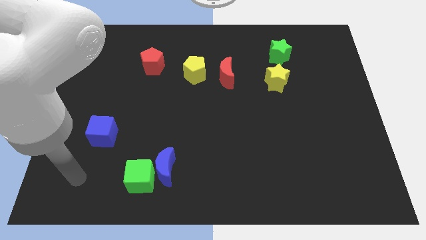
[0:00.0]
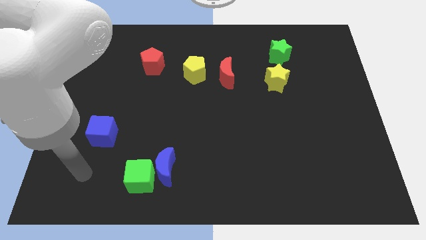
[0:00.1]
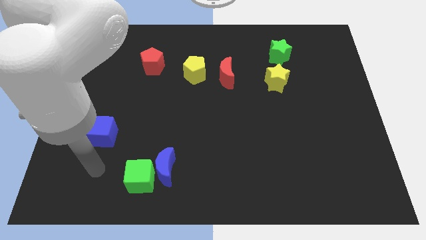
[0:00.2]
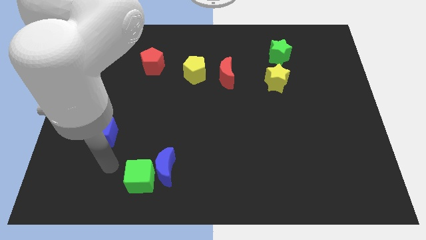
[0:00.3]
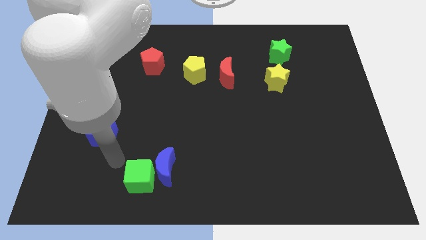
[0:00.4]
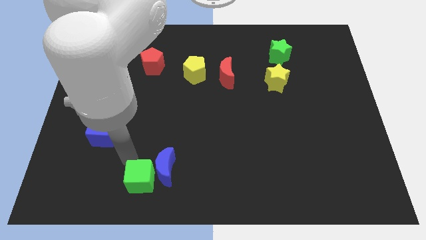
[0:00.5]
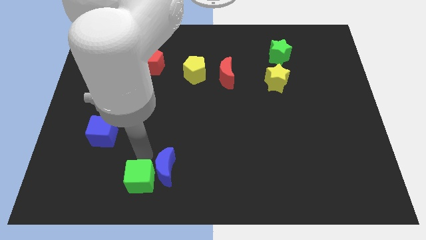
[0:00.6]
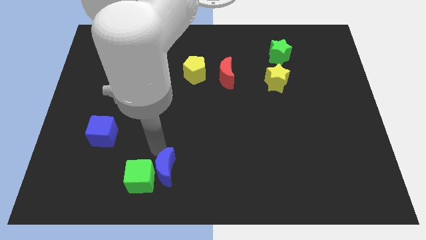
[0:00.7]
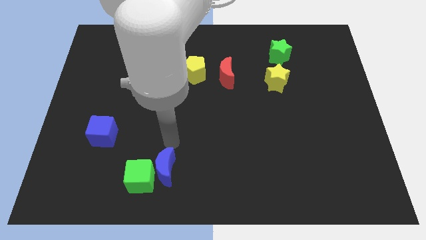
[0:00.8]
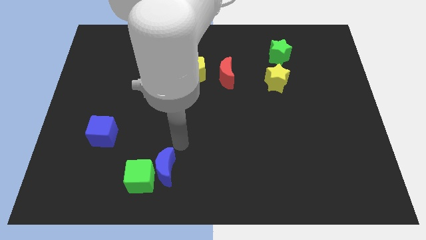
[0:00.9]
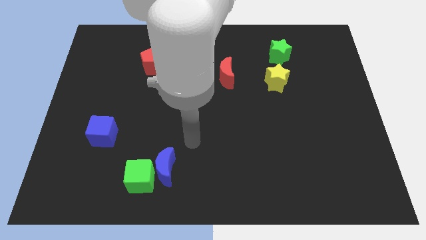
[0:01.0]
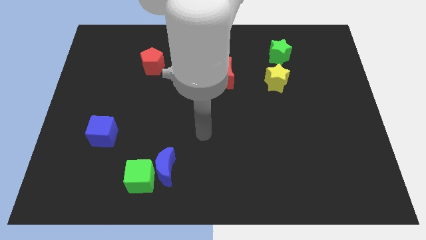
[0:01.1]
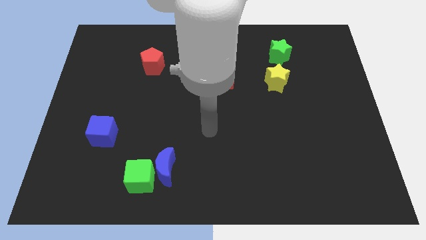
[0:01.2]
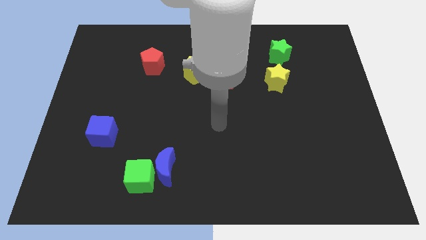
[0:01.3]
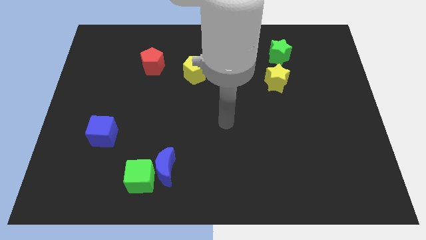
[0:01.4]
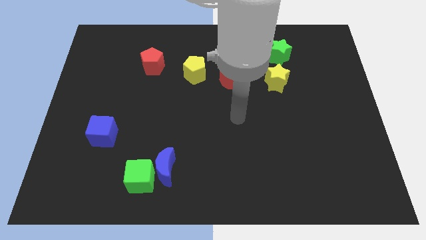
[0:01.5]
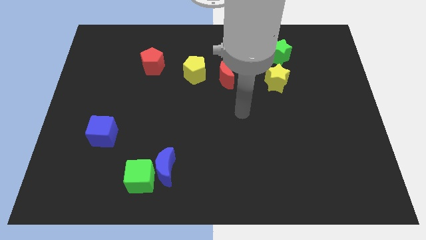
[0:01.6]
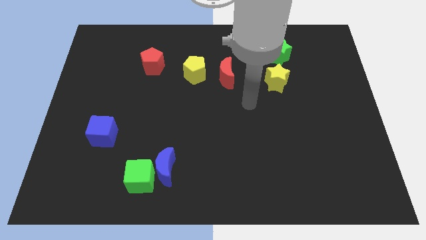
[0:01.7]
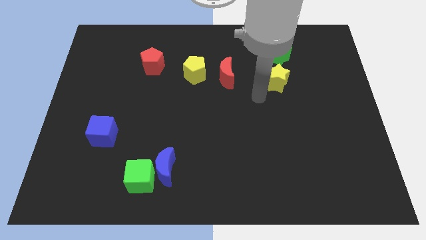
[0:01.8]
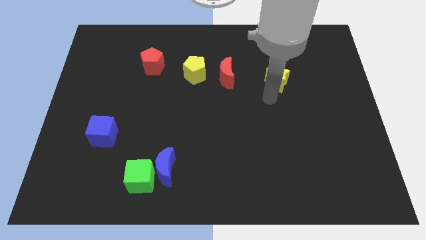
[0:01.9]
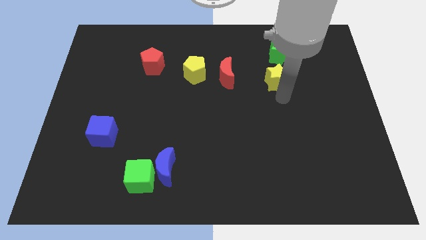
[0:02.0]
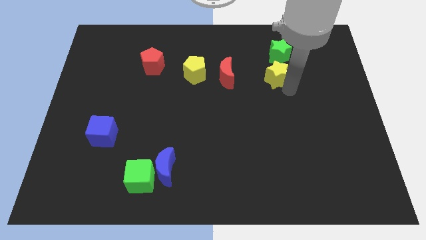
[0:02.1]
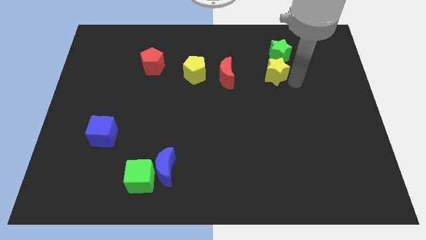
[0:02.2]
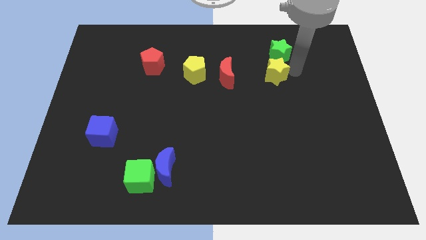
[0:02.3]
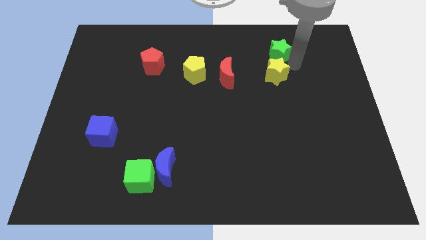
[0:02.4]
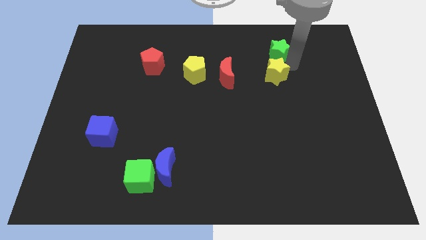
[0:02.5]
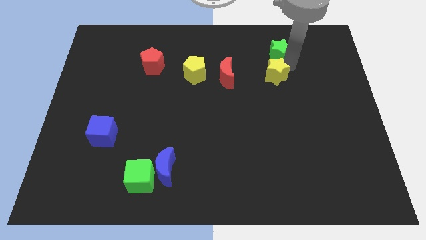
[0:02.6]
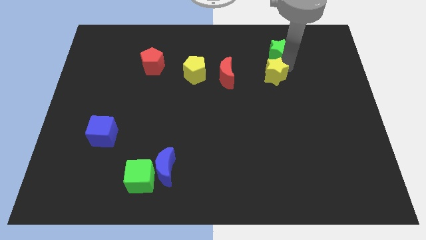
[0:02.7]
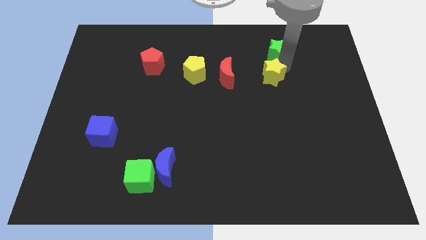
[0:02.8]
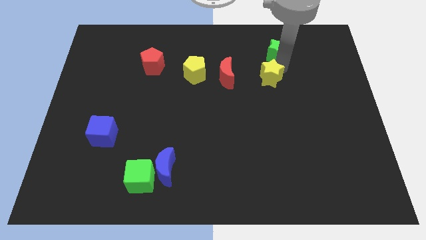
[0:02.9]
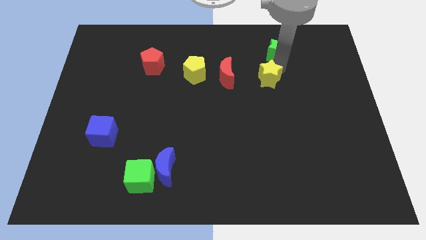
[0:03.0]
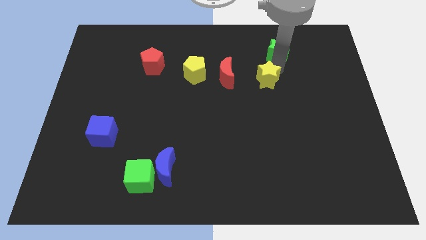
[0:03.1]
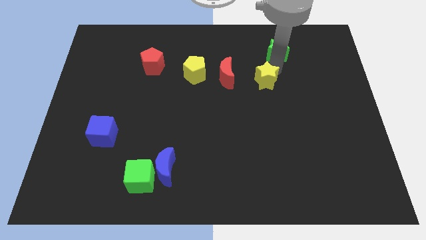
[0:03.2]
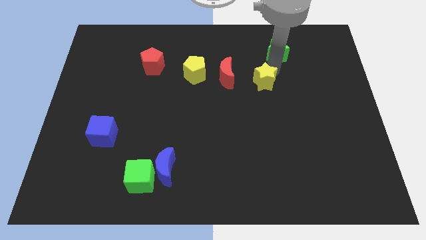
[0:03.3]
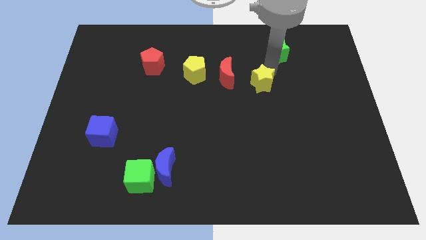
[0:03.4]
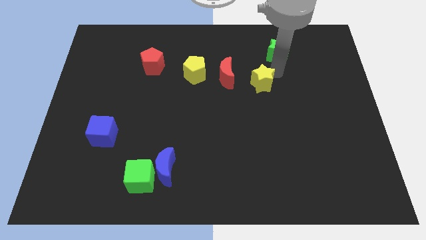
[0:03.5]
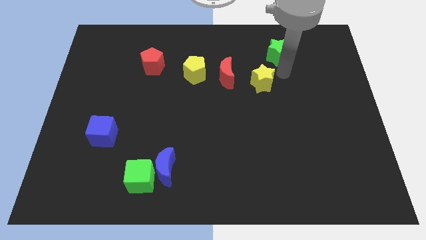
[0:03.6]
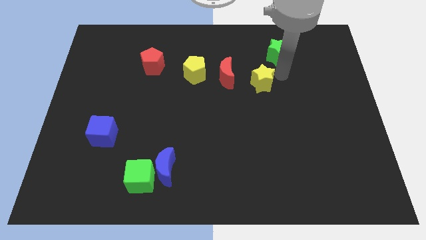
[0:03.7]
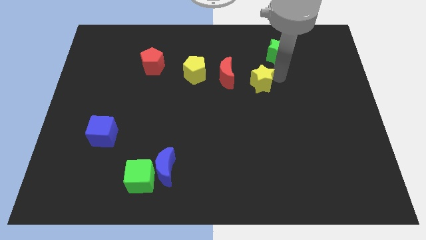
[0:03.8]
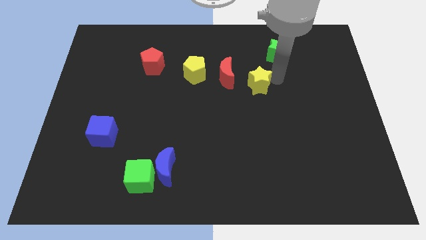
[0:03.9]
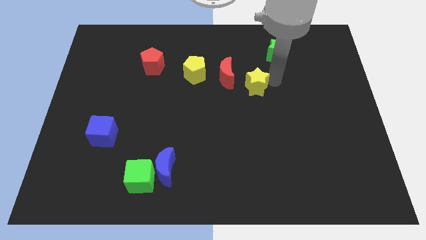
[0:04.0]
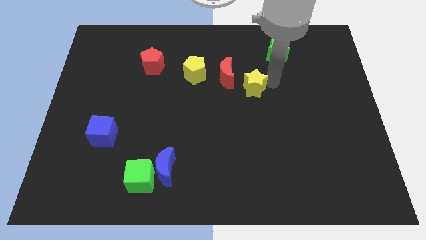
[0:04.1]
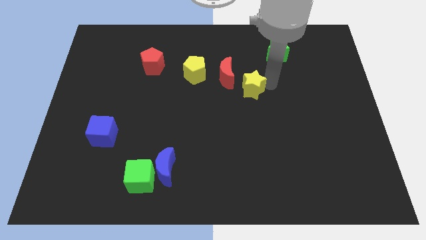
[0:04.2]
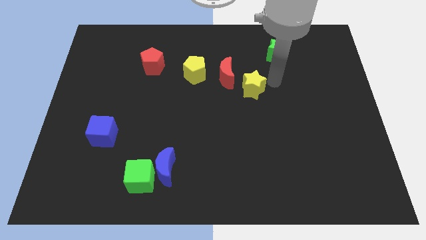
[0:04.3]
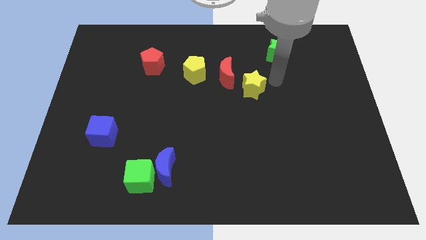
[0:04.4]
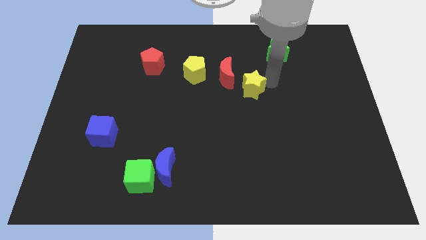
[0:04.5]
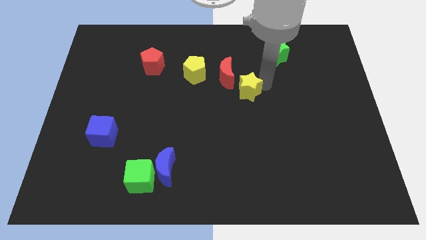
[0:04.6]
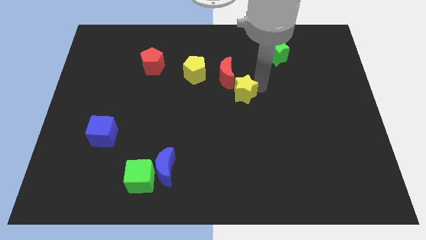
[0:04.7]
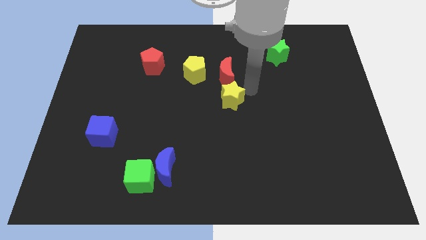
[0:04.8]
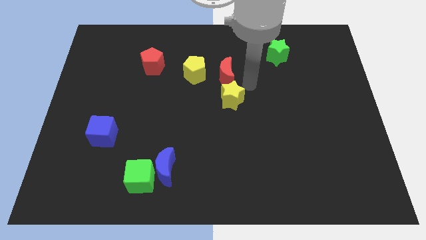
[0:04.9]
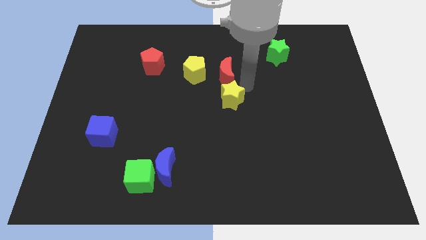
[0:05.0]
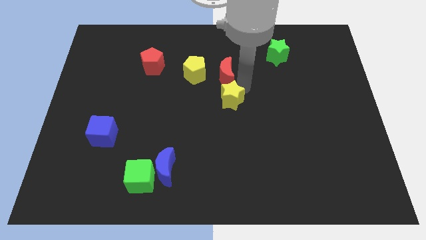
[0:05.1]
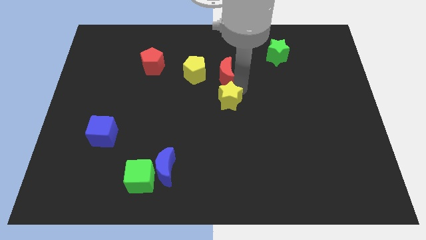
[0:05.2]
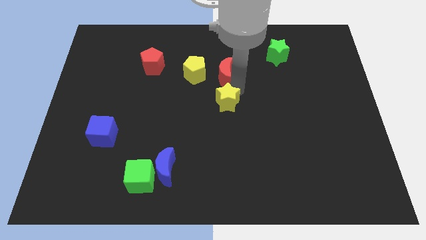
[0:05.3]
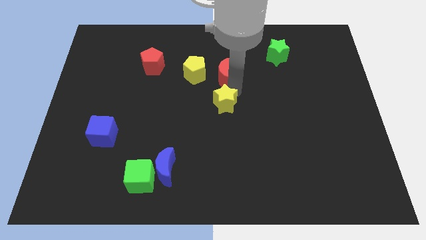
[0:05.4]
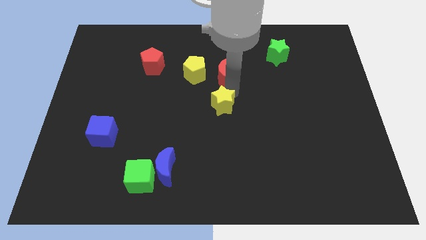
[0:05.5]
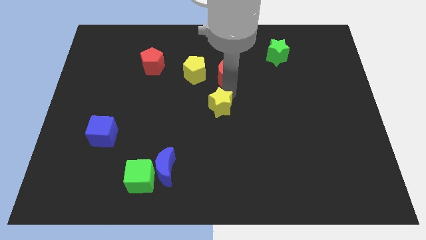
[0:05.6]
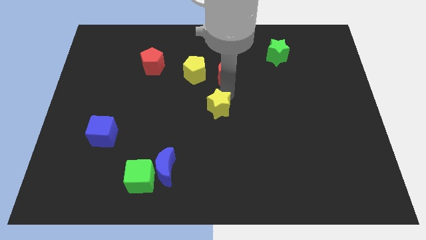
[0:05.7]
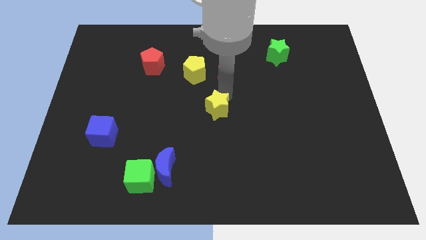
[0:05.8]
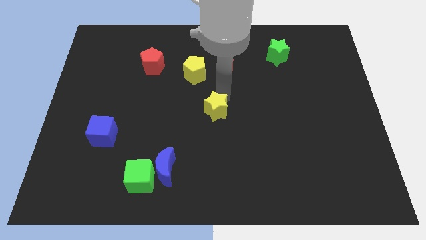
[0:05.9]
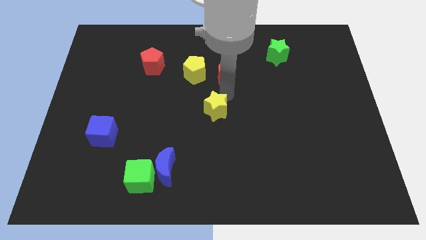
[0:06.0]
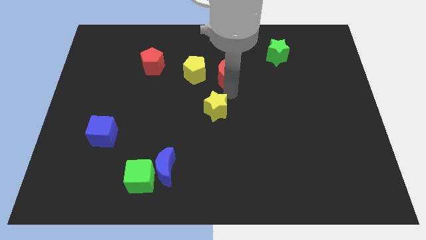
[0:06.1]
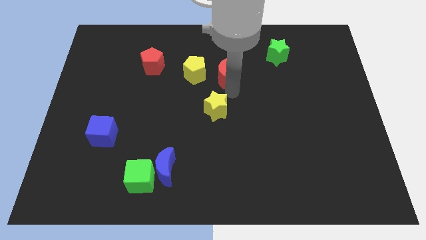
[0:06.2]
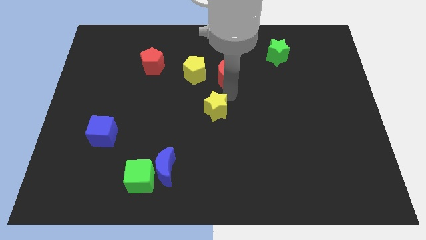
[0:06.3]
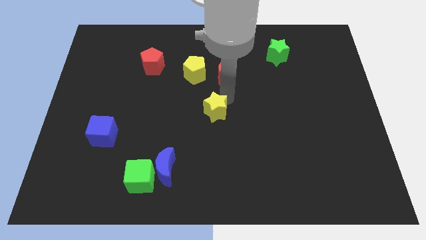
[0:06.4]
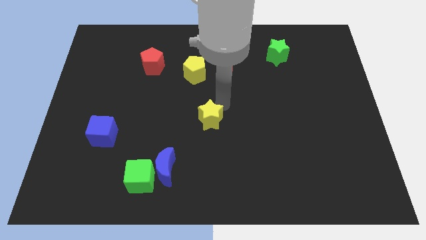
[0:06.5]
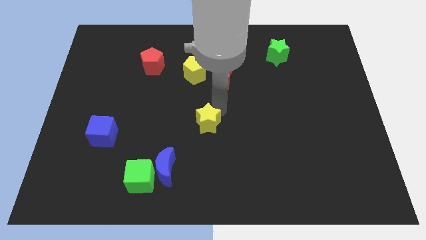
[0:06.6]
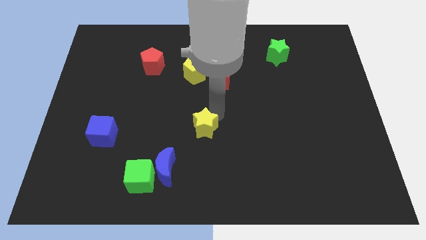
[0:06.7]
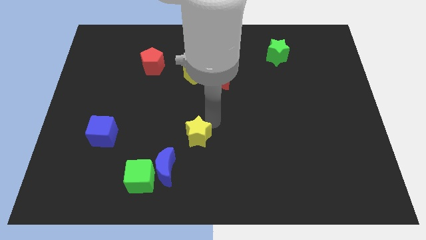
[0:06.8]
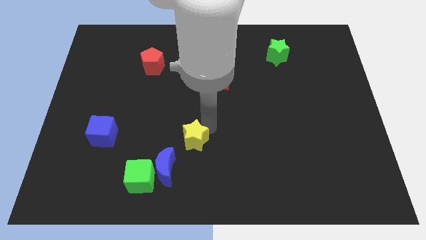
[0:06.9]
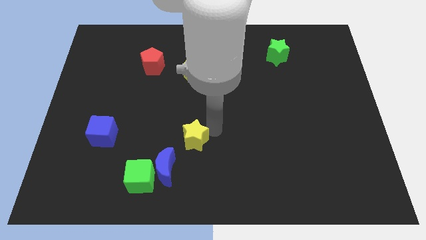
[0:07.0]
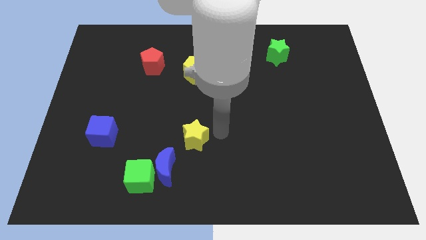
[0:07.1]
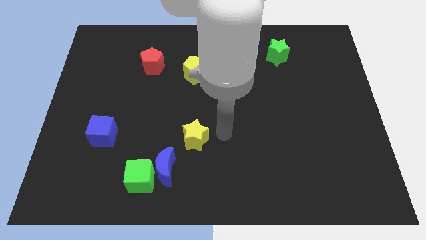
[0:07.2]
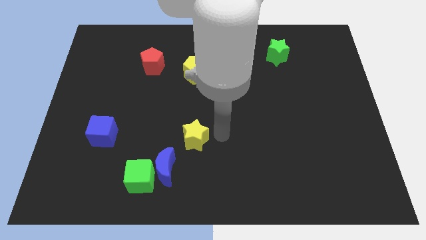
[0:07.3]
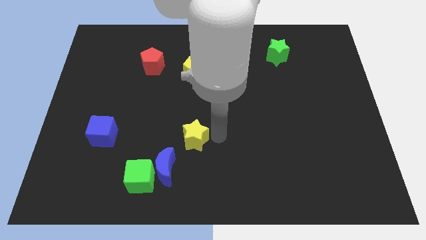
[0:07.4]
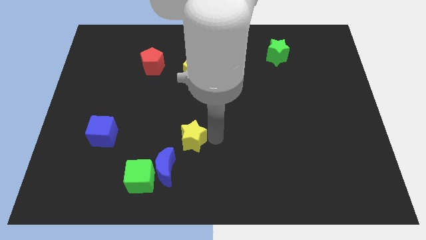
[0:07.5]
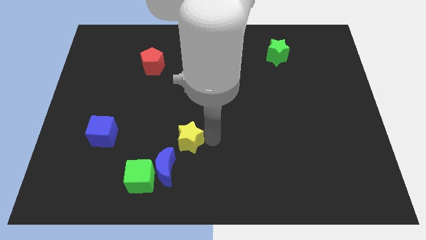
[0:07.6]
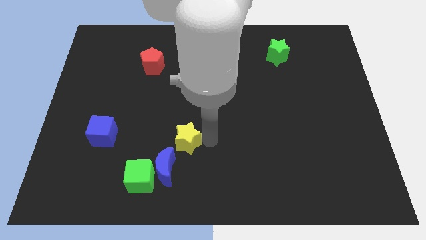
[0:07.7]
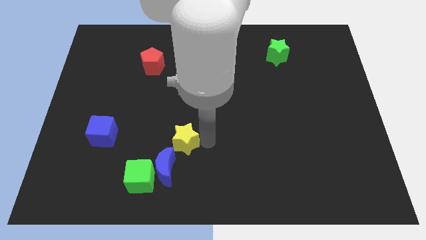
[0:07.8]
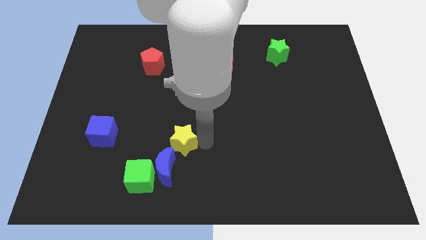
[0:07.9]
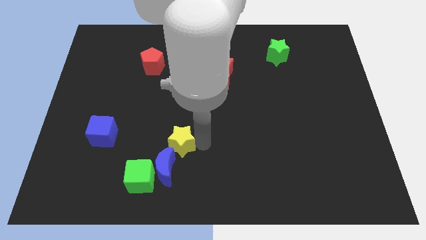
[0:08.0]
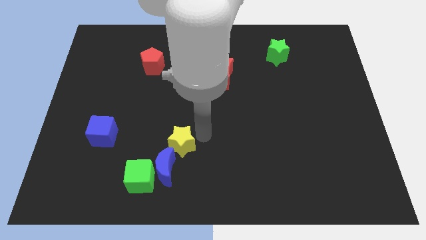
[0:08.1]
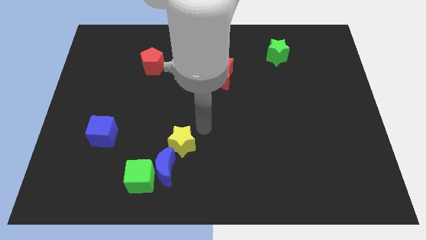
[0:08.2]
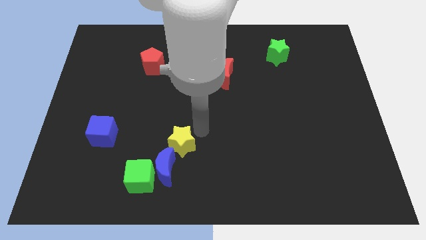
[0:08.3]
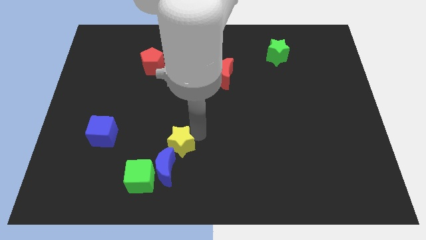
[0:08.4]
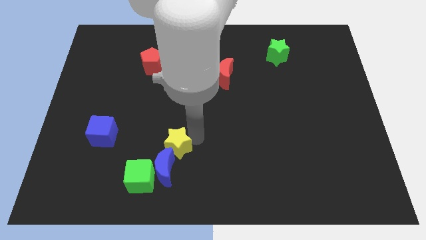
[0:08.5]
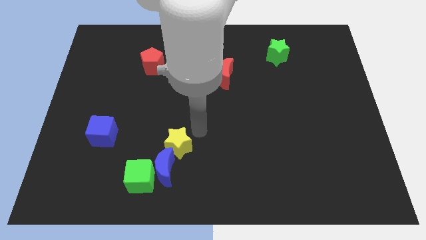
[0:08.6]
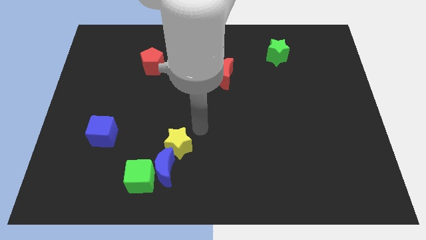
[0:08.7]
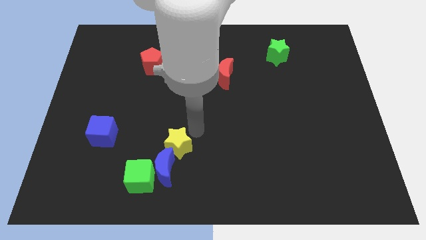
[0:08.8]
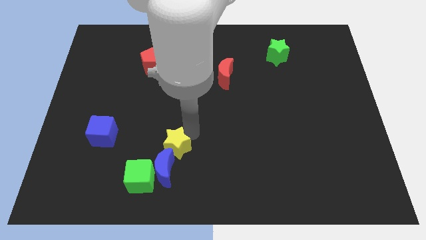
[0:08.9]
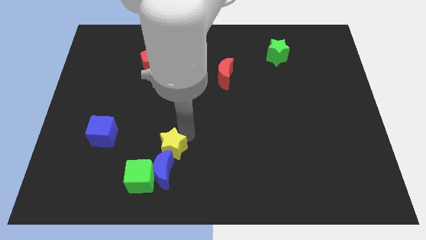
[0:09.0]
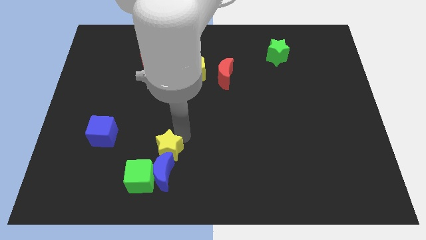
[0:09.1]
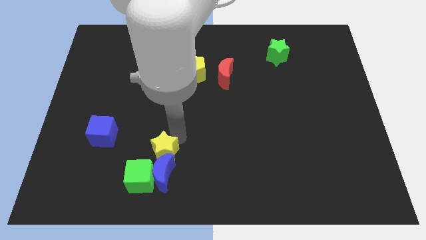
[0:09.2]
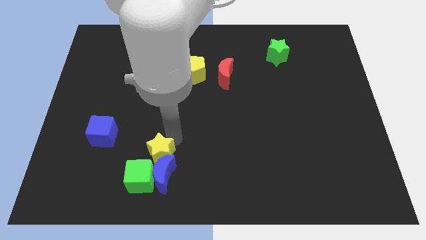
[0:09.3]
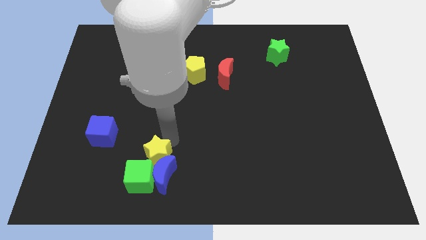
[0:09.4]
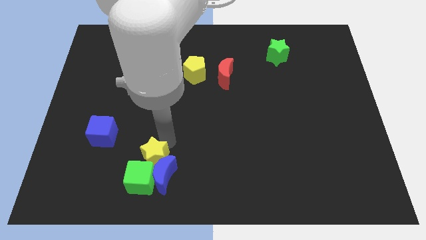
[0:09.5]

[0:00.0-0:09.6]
move the yellow star towards the green cube
